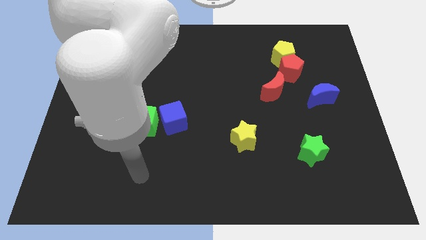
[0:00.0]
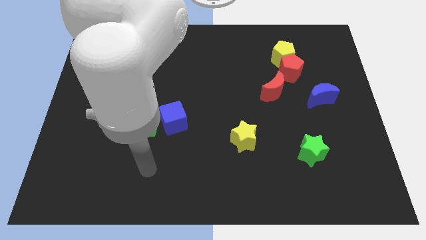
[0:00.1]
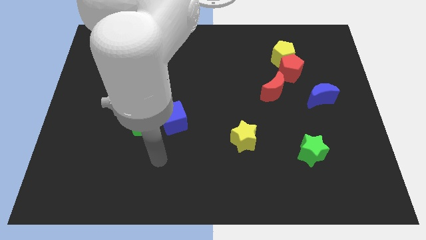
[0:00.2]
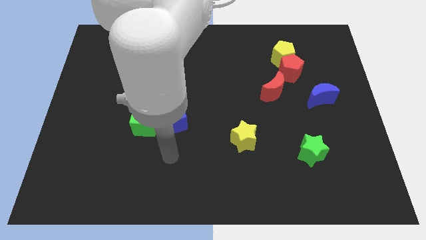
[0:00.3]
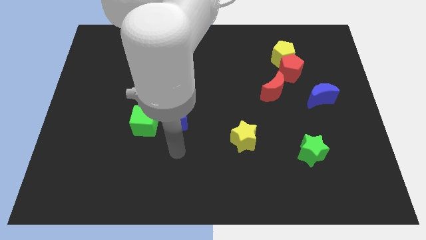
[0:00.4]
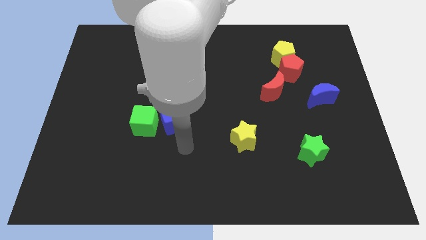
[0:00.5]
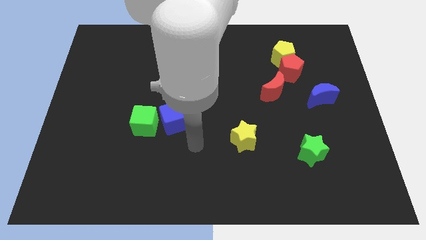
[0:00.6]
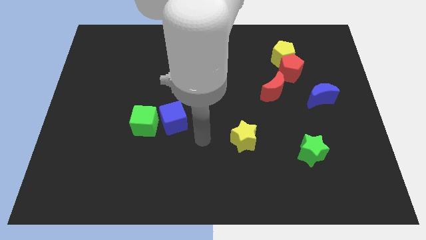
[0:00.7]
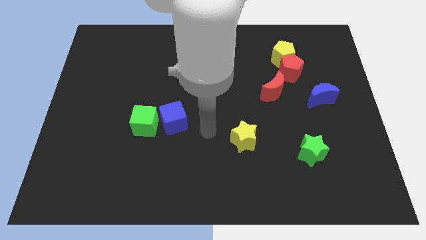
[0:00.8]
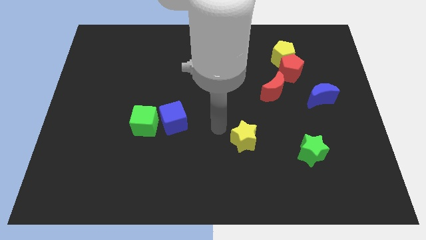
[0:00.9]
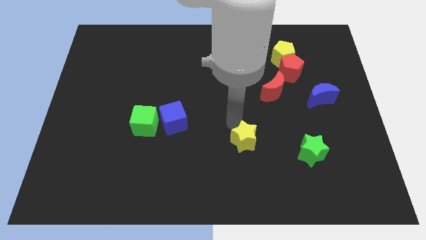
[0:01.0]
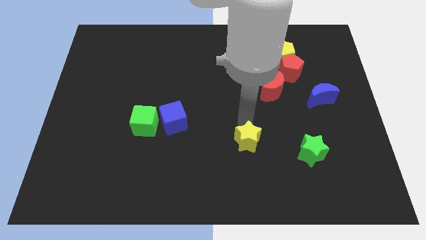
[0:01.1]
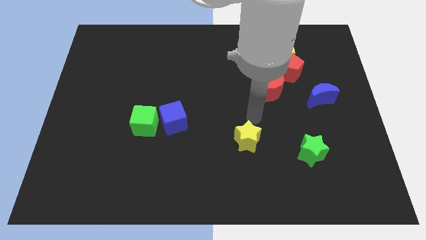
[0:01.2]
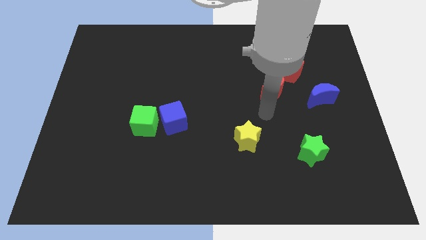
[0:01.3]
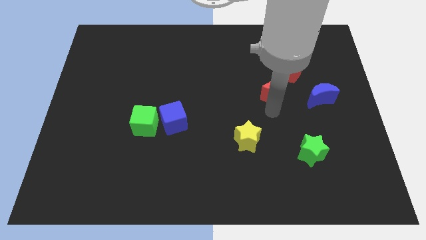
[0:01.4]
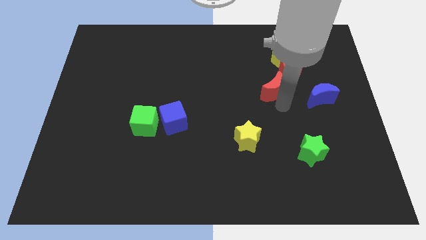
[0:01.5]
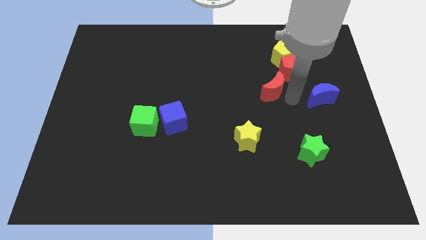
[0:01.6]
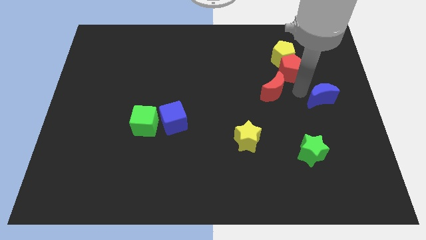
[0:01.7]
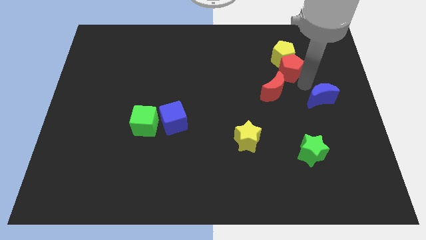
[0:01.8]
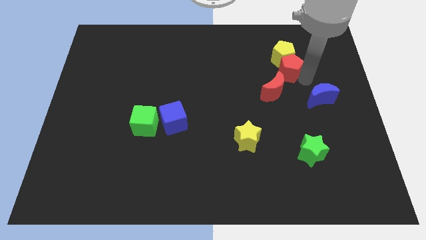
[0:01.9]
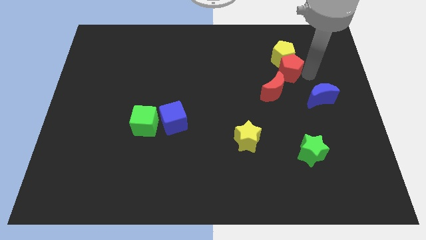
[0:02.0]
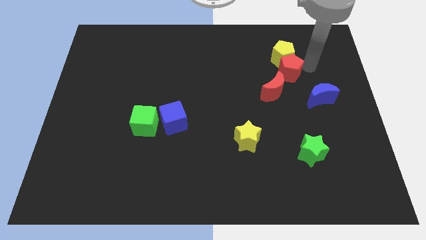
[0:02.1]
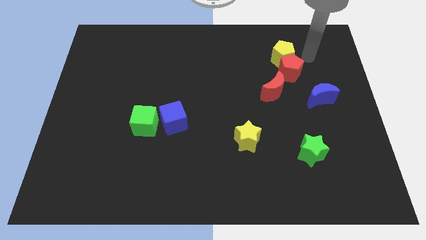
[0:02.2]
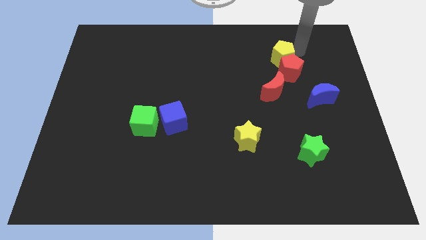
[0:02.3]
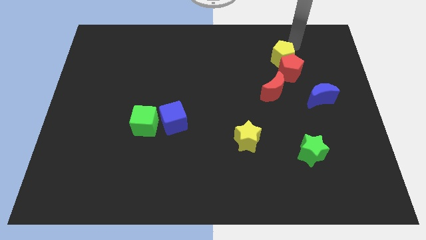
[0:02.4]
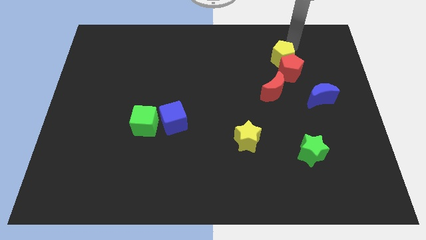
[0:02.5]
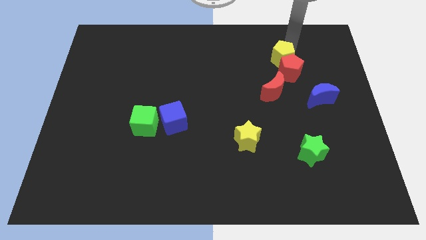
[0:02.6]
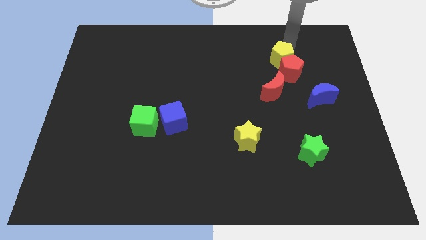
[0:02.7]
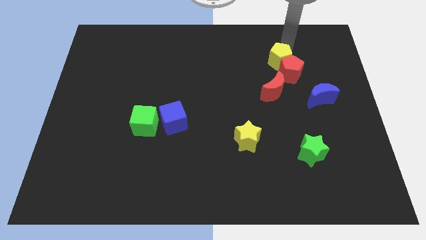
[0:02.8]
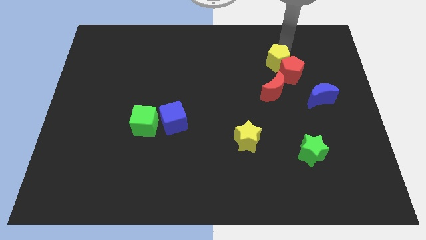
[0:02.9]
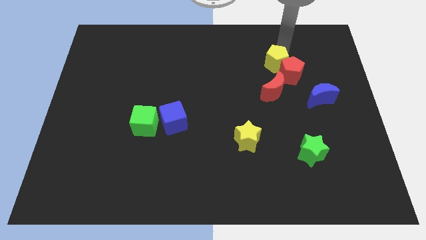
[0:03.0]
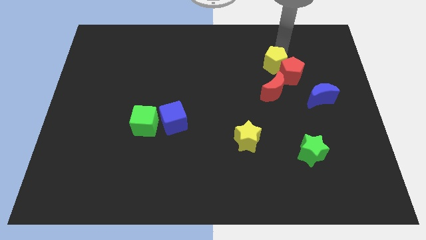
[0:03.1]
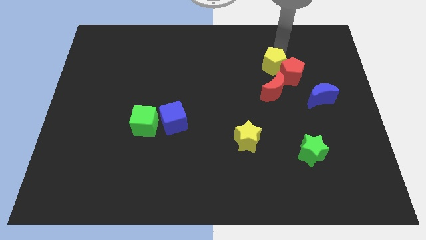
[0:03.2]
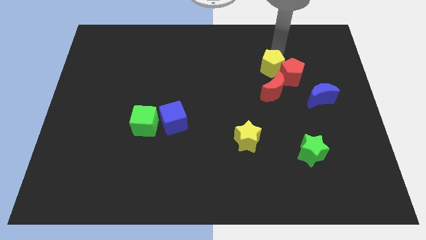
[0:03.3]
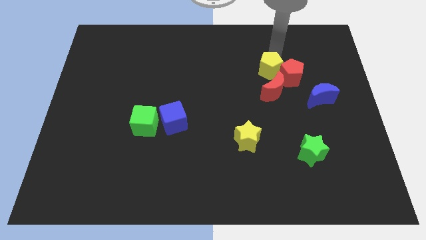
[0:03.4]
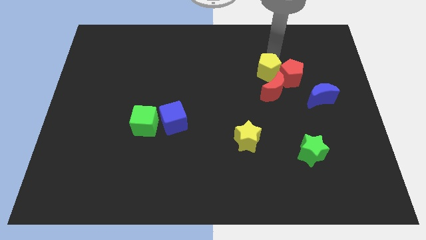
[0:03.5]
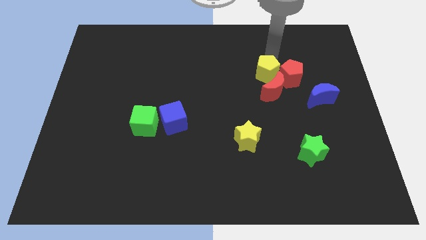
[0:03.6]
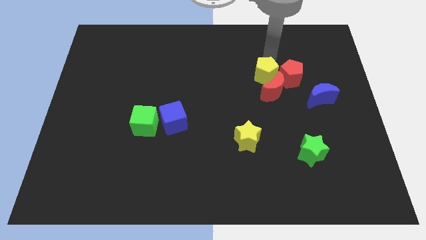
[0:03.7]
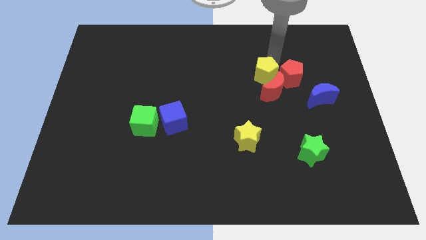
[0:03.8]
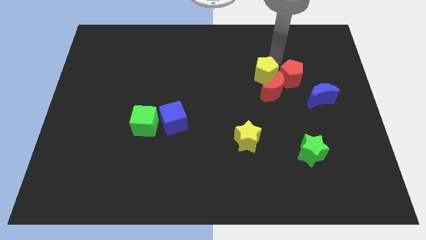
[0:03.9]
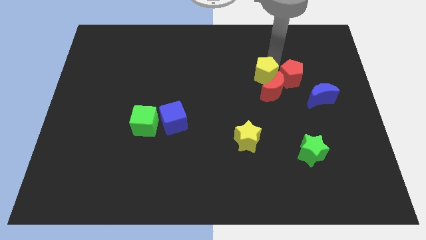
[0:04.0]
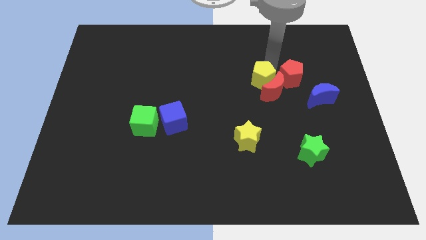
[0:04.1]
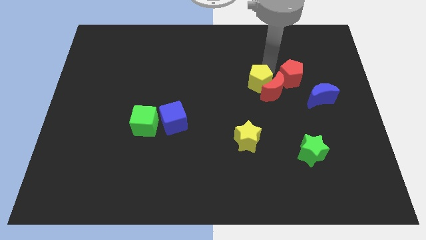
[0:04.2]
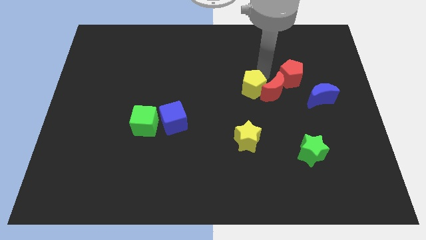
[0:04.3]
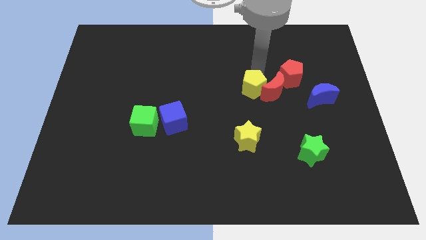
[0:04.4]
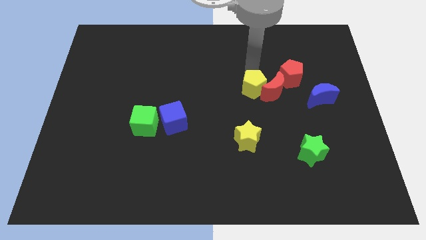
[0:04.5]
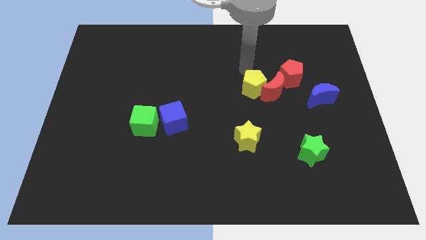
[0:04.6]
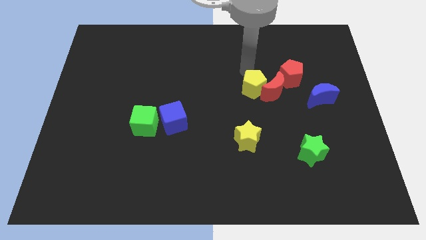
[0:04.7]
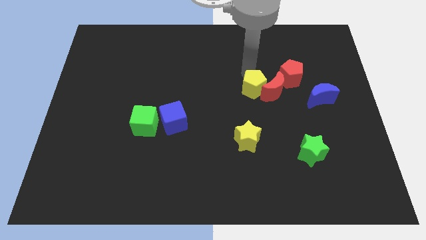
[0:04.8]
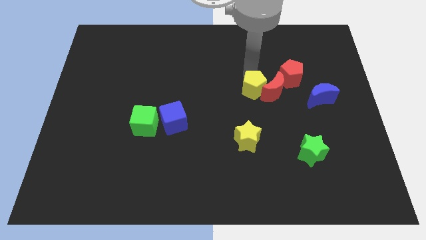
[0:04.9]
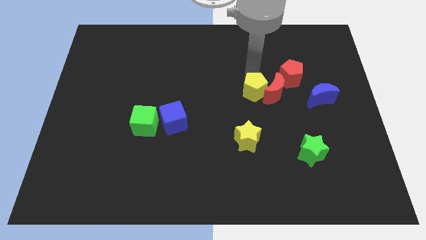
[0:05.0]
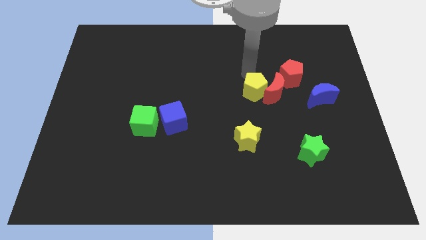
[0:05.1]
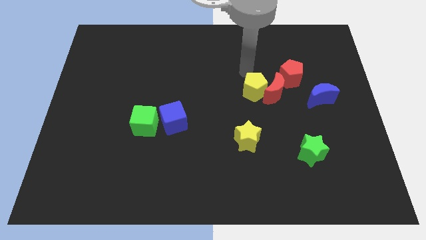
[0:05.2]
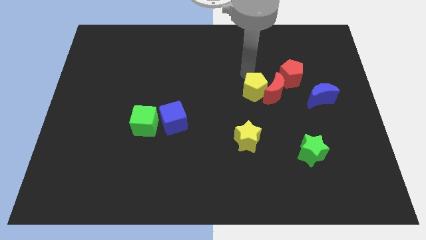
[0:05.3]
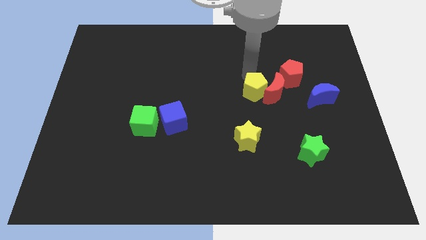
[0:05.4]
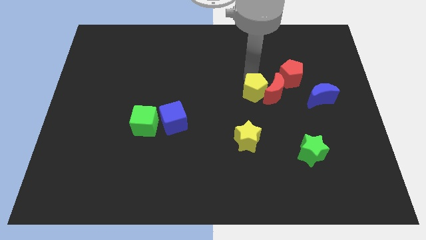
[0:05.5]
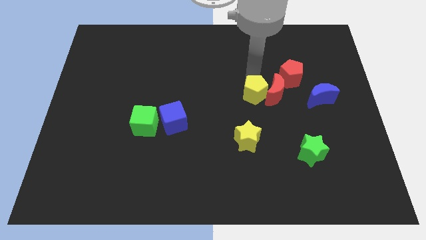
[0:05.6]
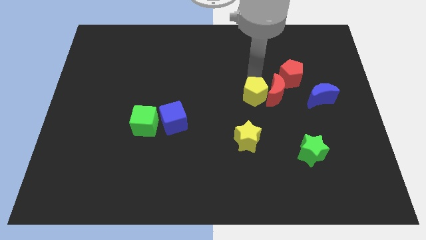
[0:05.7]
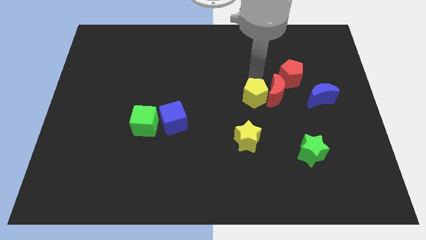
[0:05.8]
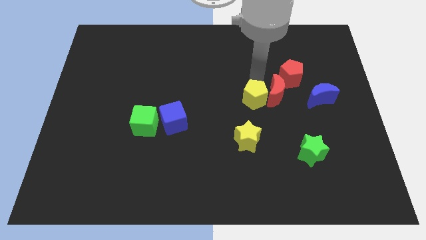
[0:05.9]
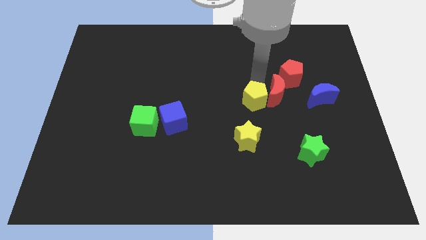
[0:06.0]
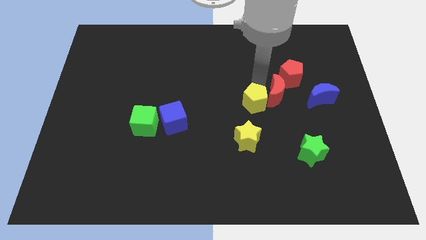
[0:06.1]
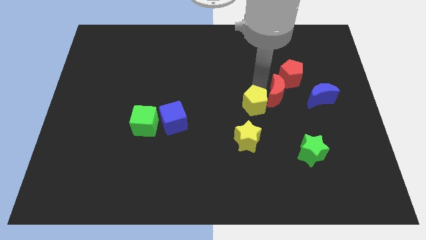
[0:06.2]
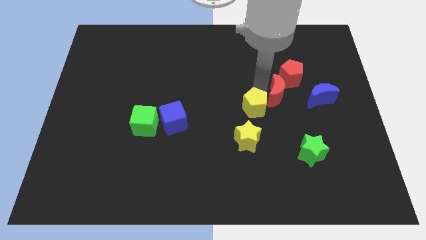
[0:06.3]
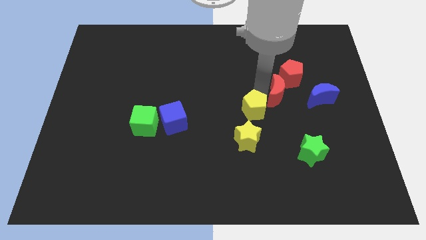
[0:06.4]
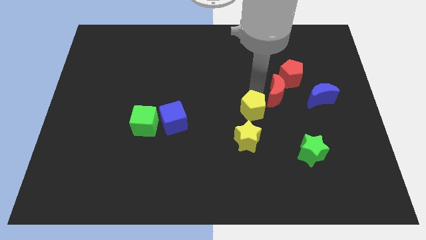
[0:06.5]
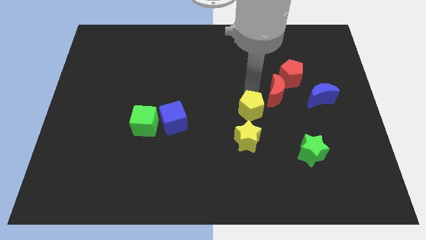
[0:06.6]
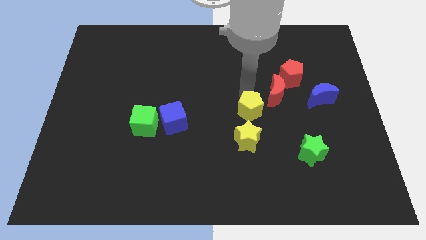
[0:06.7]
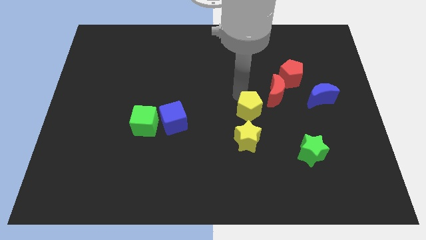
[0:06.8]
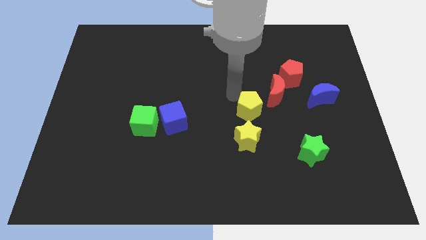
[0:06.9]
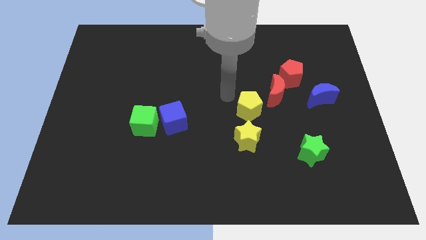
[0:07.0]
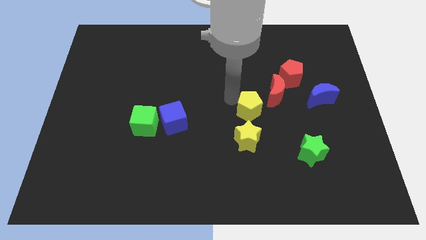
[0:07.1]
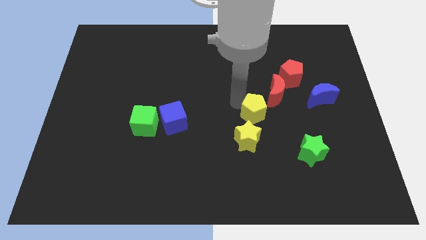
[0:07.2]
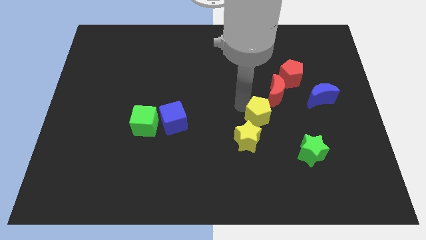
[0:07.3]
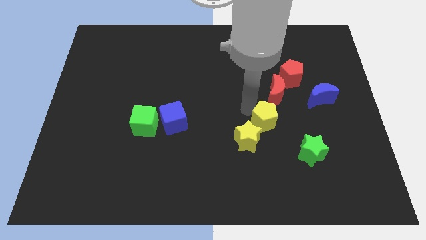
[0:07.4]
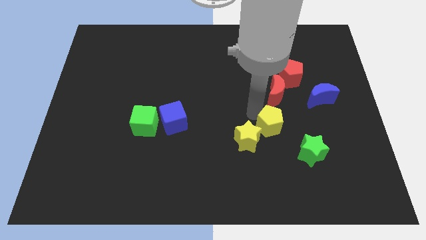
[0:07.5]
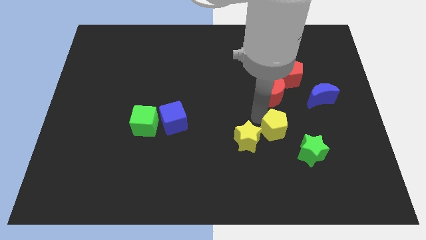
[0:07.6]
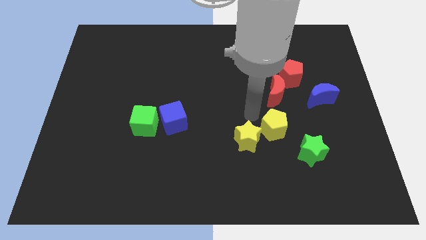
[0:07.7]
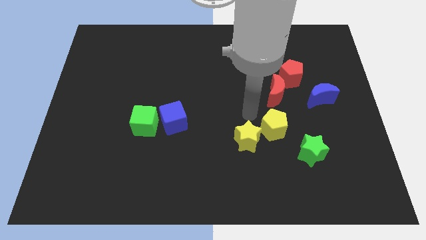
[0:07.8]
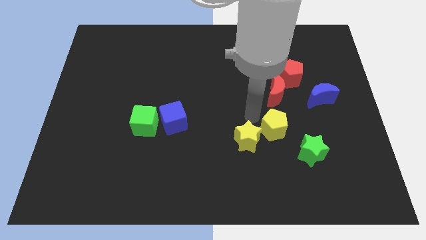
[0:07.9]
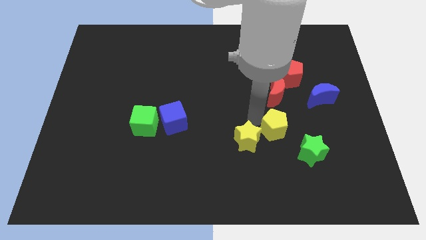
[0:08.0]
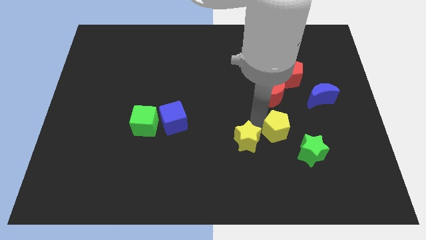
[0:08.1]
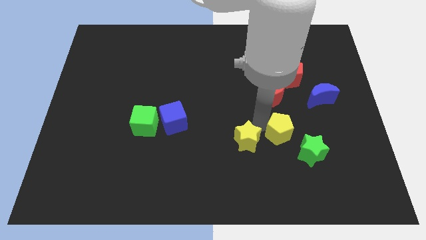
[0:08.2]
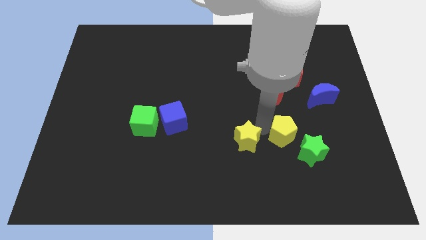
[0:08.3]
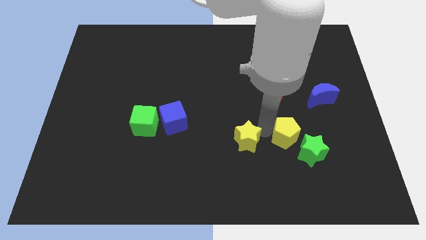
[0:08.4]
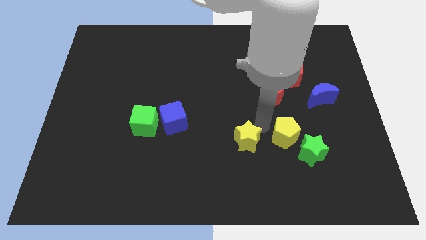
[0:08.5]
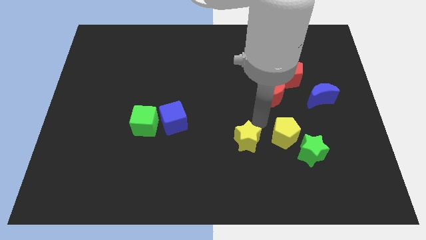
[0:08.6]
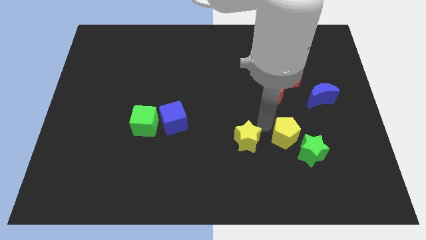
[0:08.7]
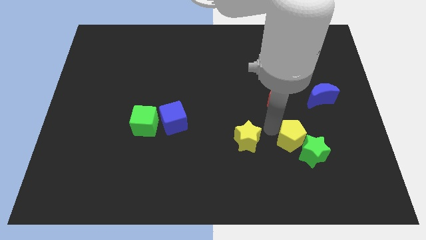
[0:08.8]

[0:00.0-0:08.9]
move the yellow pentagon next to the green star
